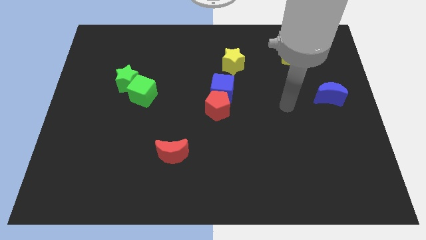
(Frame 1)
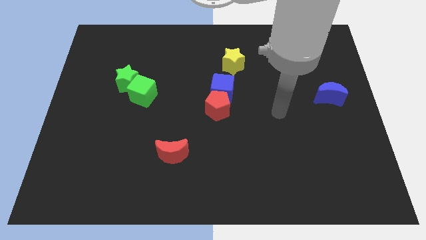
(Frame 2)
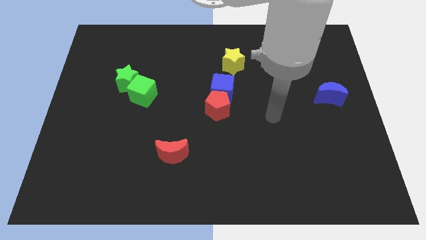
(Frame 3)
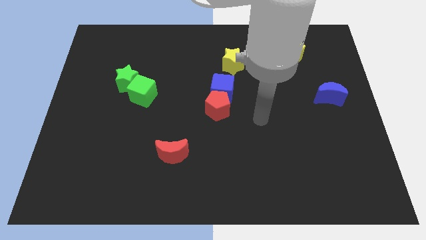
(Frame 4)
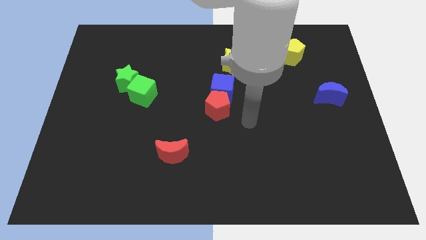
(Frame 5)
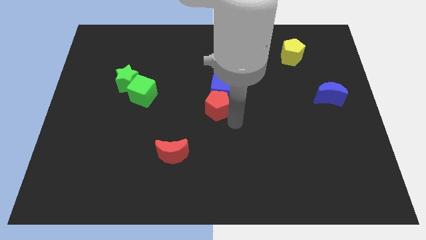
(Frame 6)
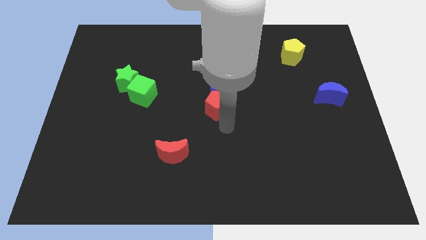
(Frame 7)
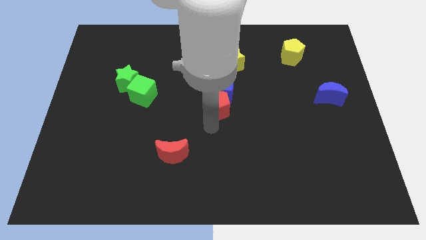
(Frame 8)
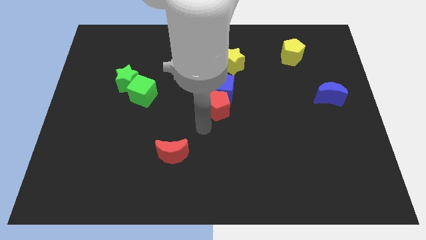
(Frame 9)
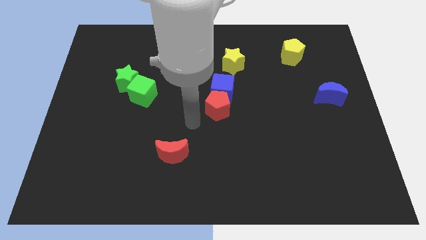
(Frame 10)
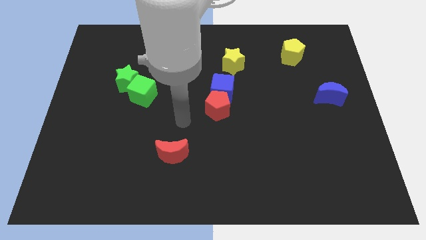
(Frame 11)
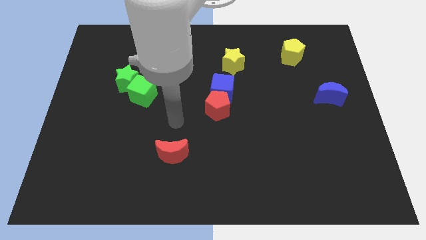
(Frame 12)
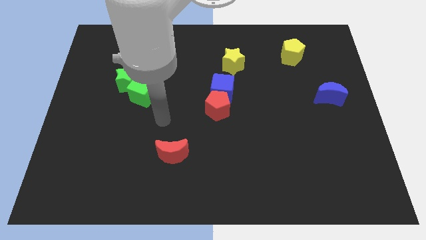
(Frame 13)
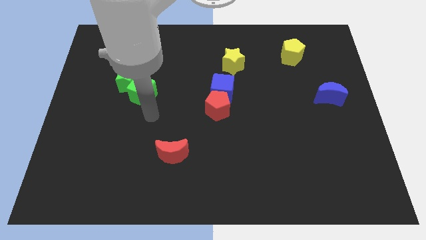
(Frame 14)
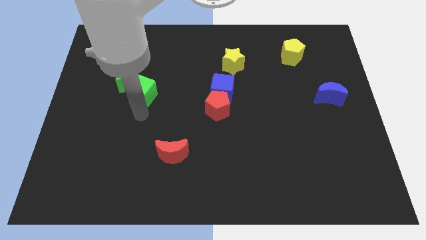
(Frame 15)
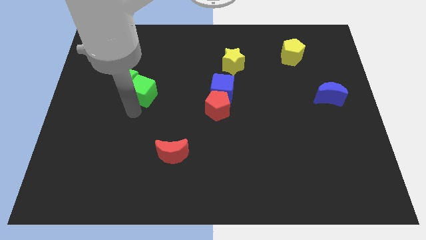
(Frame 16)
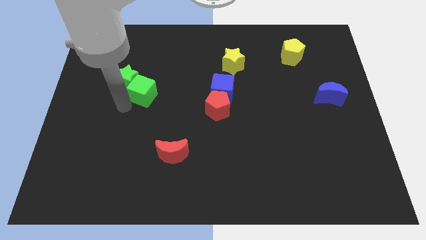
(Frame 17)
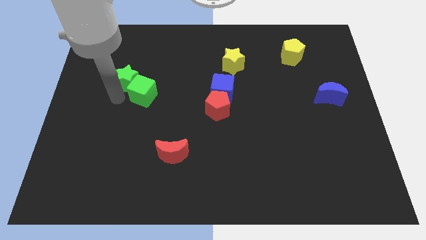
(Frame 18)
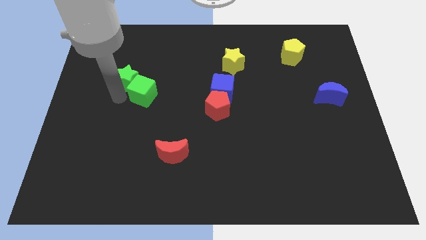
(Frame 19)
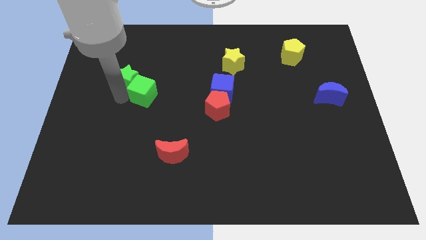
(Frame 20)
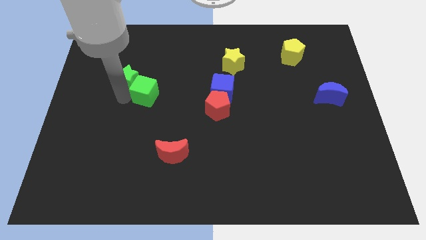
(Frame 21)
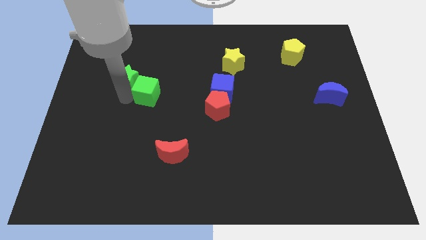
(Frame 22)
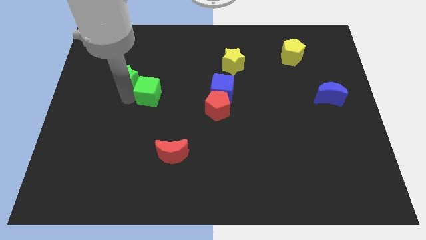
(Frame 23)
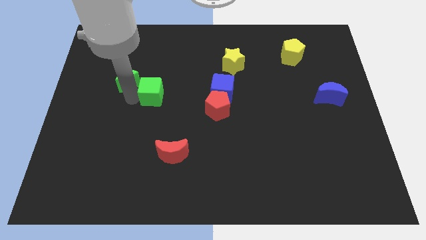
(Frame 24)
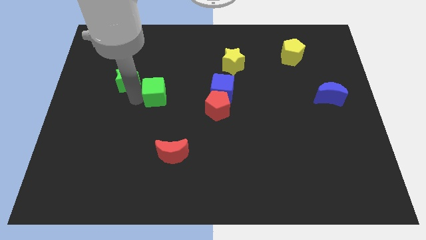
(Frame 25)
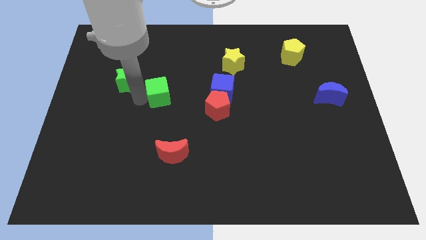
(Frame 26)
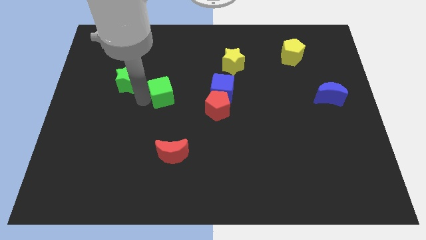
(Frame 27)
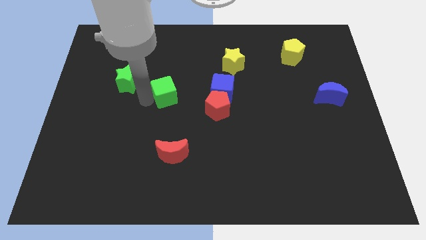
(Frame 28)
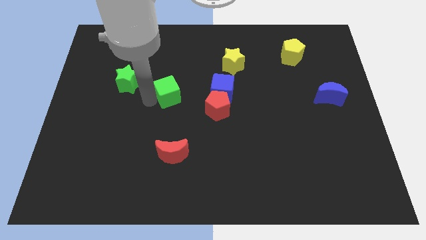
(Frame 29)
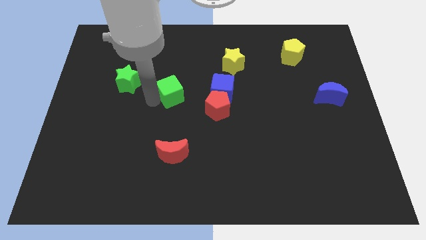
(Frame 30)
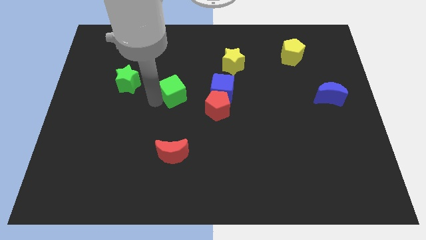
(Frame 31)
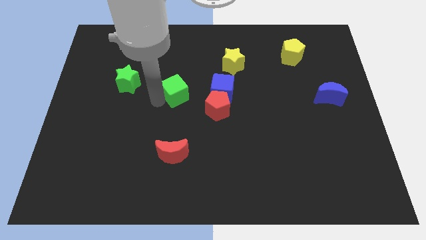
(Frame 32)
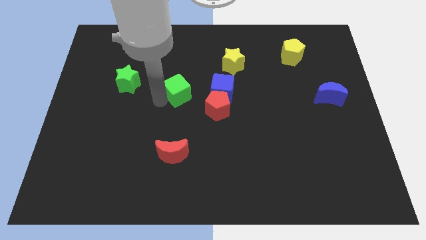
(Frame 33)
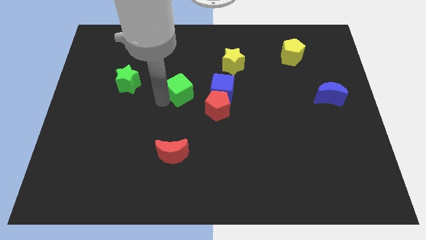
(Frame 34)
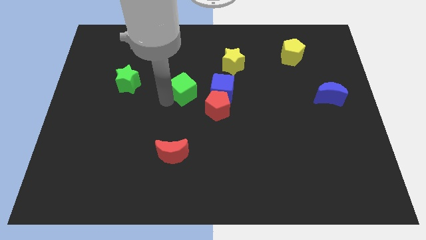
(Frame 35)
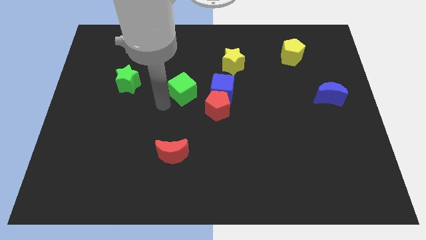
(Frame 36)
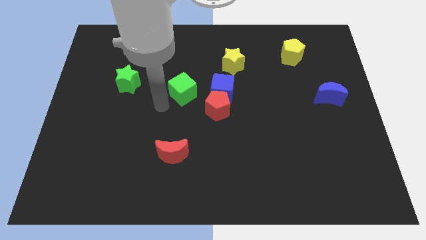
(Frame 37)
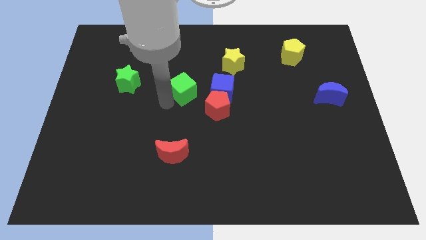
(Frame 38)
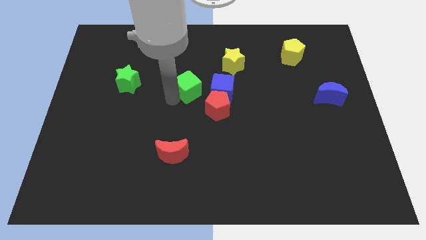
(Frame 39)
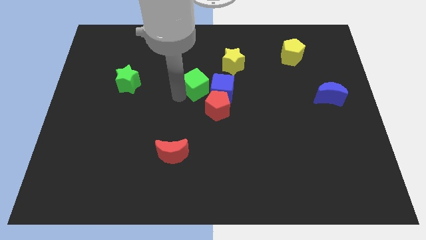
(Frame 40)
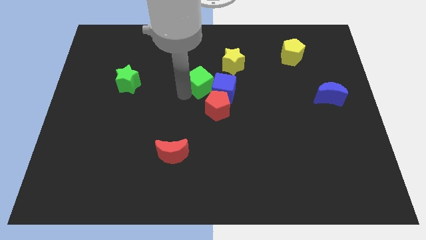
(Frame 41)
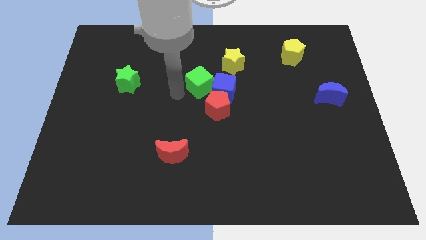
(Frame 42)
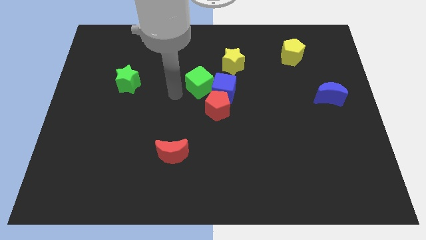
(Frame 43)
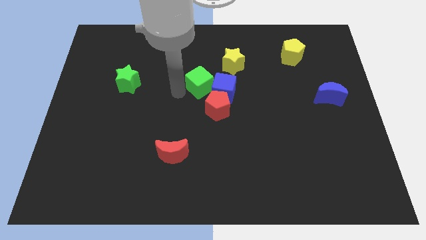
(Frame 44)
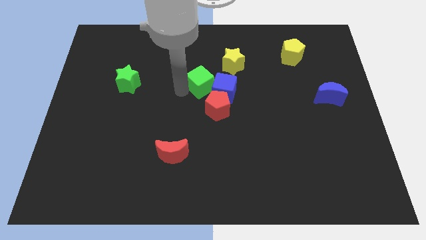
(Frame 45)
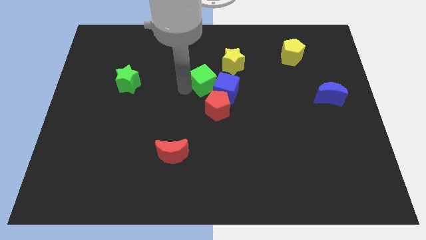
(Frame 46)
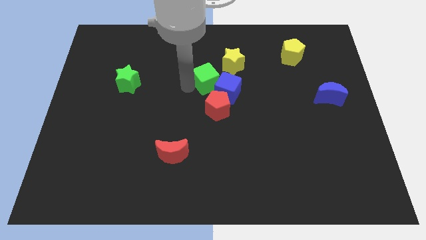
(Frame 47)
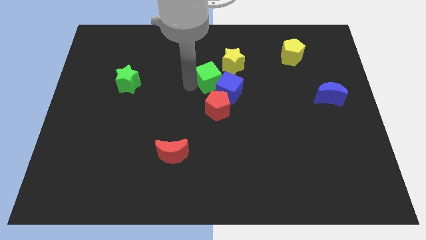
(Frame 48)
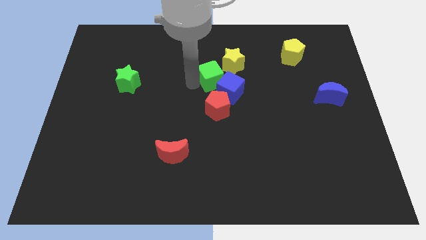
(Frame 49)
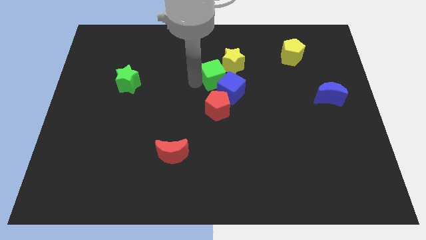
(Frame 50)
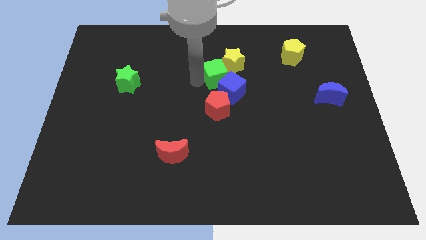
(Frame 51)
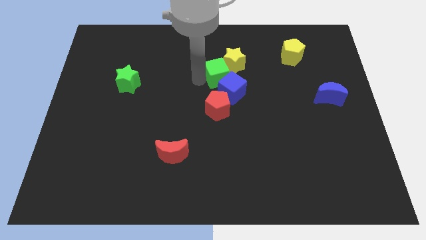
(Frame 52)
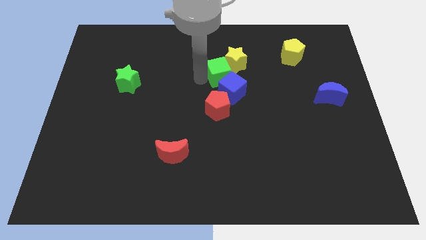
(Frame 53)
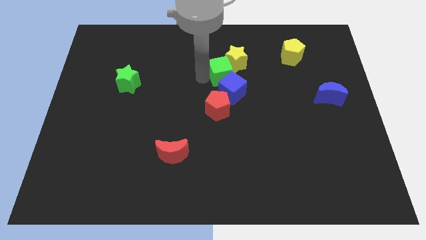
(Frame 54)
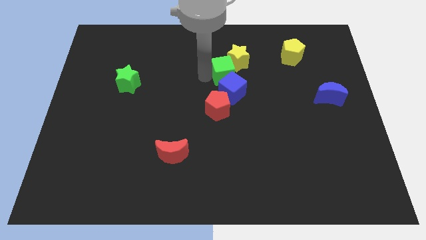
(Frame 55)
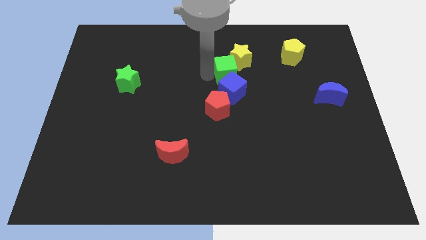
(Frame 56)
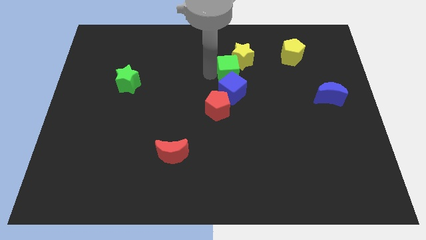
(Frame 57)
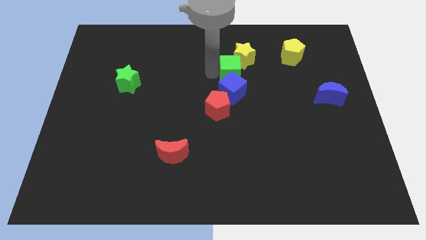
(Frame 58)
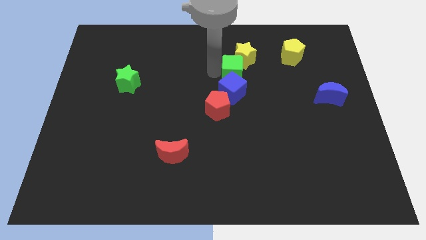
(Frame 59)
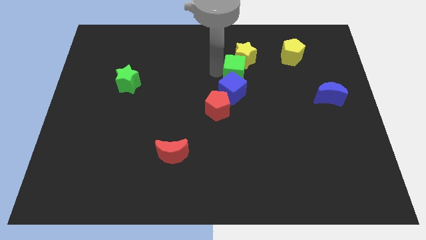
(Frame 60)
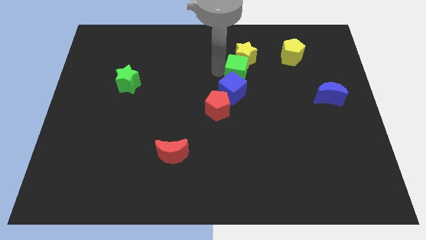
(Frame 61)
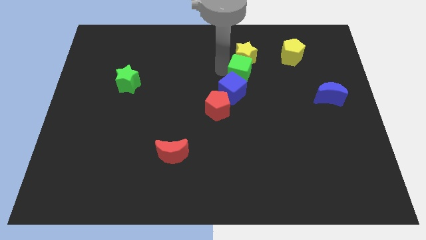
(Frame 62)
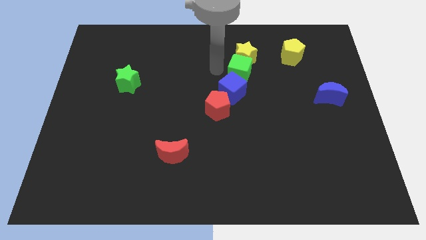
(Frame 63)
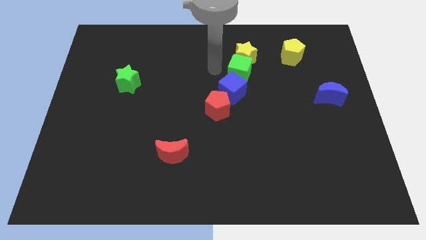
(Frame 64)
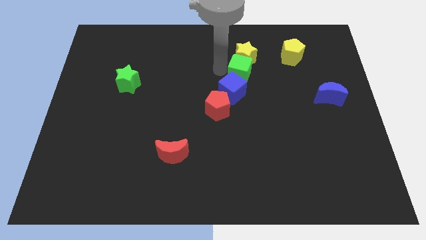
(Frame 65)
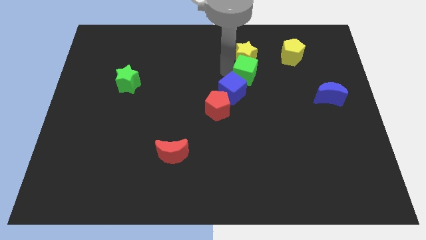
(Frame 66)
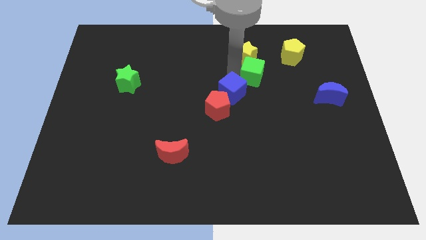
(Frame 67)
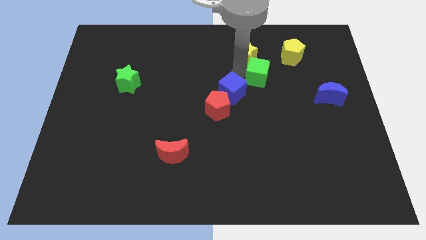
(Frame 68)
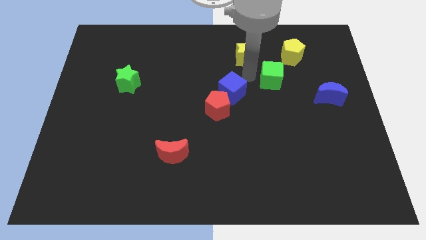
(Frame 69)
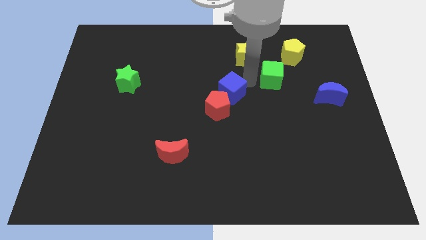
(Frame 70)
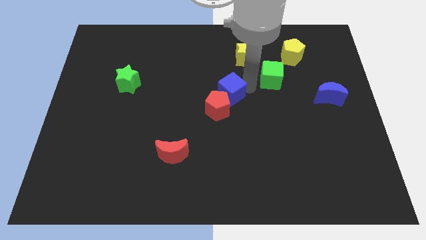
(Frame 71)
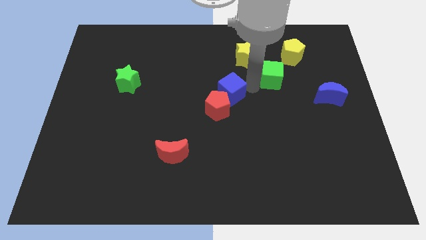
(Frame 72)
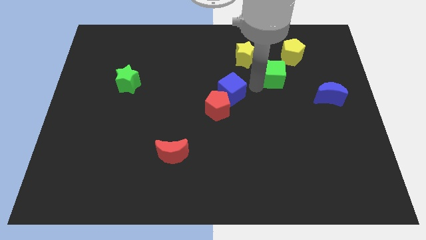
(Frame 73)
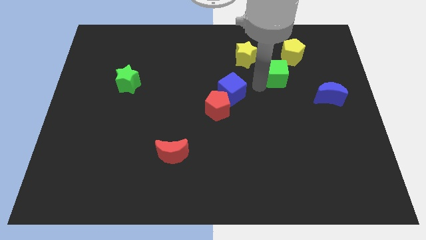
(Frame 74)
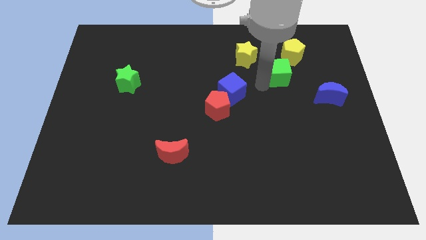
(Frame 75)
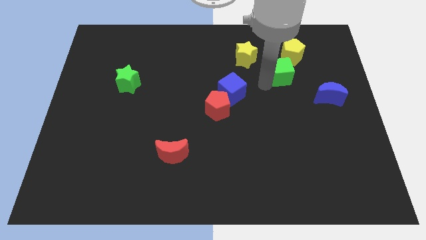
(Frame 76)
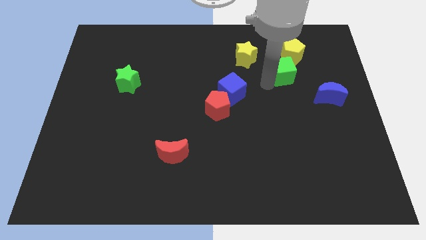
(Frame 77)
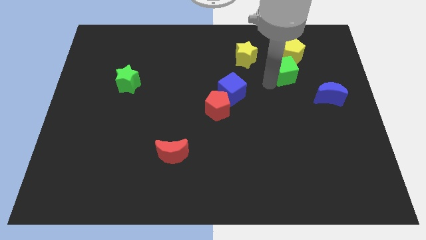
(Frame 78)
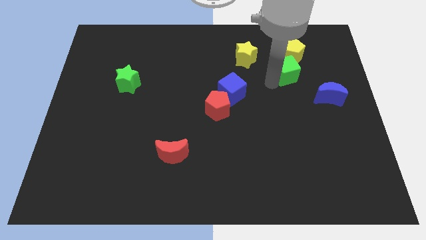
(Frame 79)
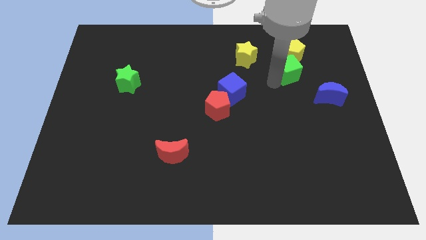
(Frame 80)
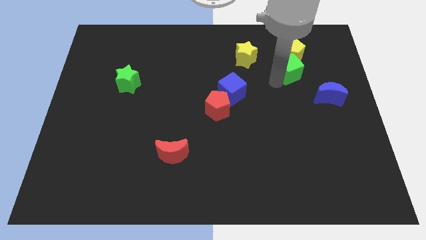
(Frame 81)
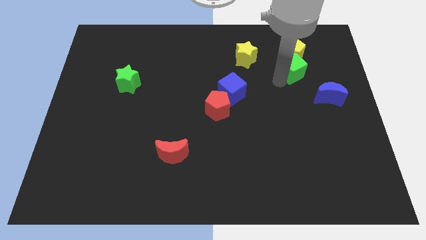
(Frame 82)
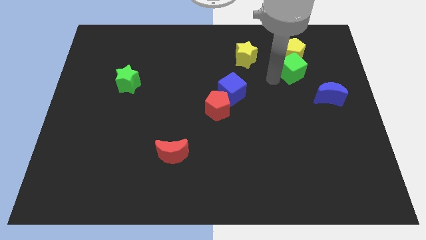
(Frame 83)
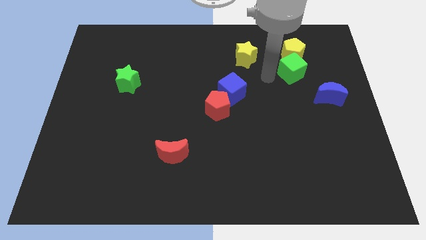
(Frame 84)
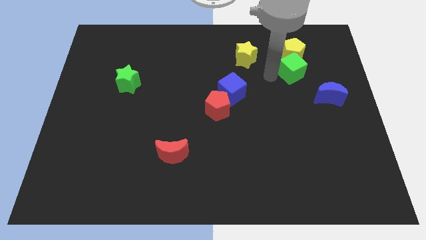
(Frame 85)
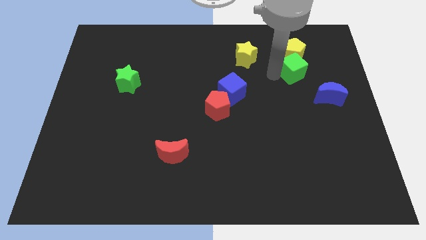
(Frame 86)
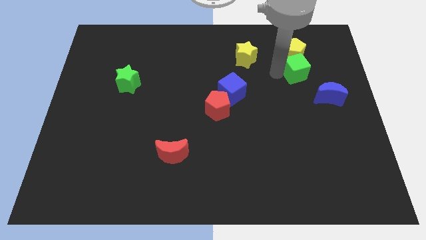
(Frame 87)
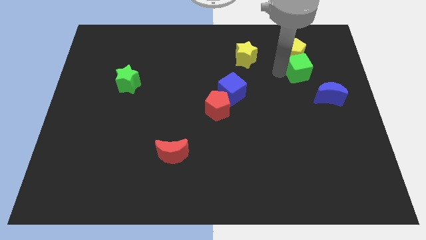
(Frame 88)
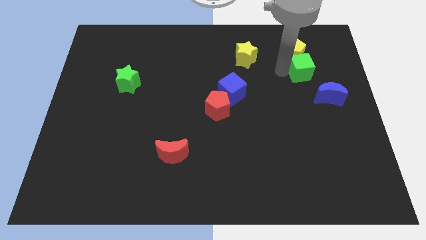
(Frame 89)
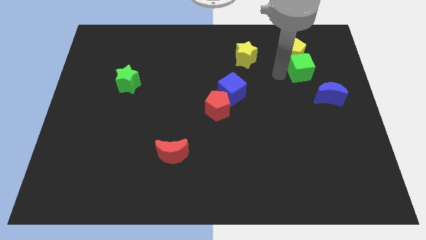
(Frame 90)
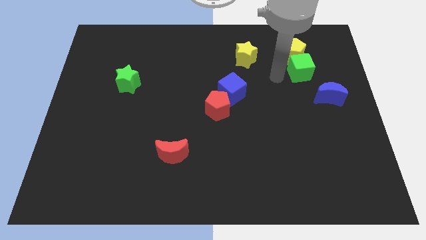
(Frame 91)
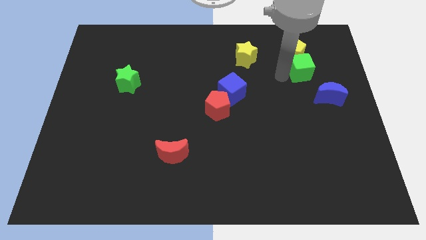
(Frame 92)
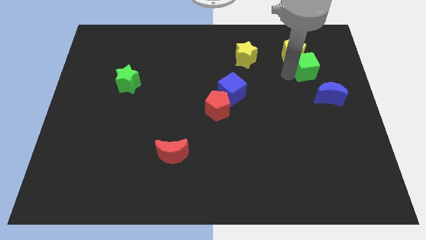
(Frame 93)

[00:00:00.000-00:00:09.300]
slide the green cube to the top of the blue moon
